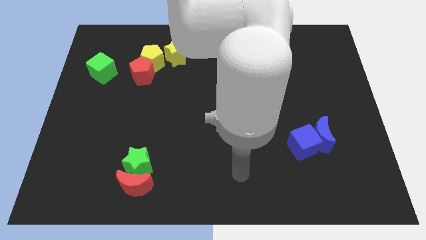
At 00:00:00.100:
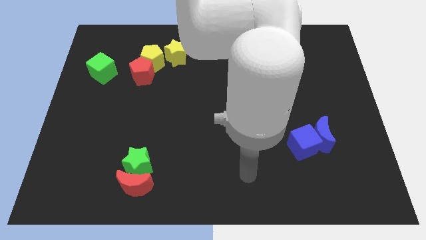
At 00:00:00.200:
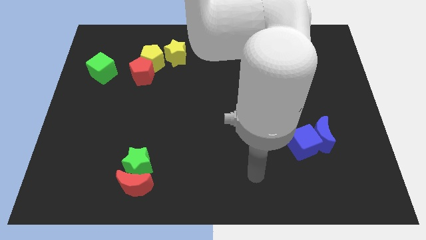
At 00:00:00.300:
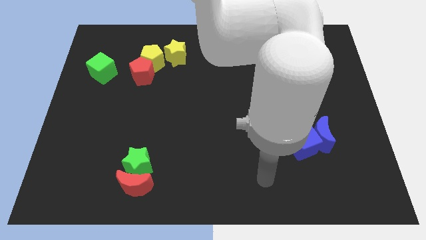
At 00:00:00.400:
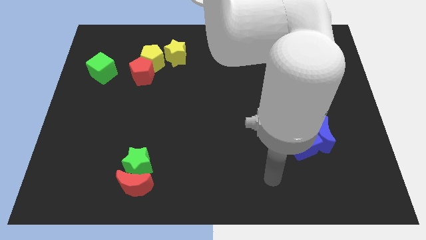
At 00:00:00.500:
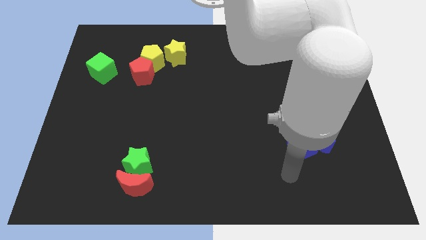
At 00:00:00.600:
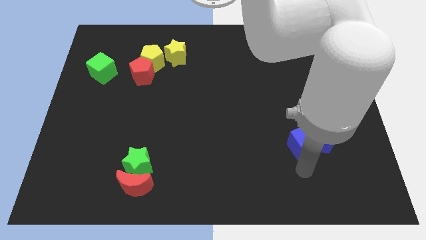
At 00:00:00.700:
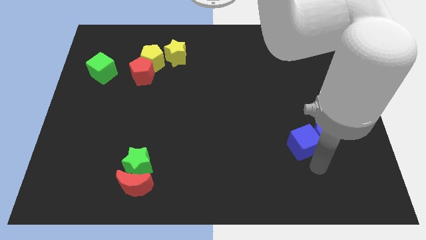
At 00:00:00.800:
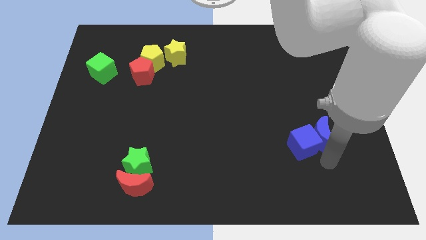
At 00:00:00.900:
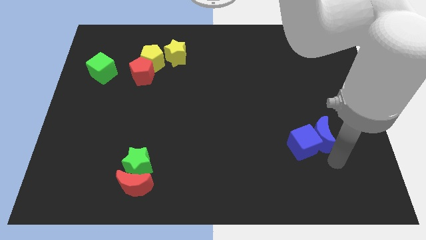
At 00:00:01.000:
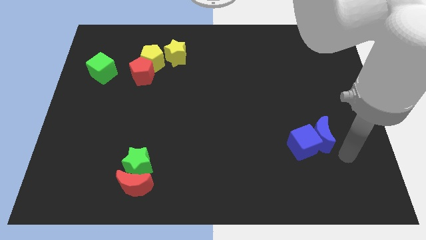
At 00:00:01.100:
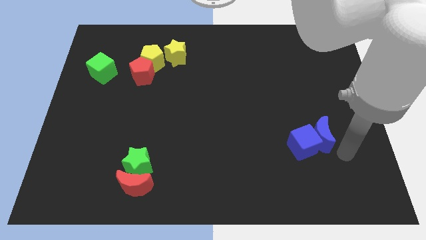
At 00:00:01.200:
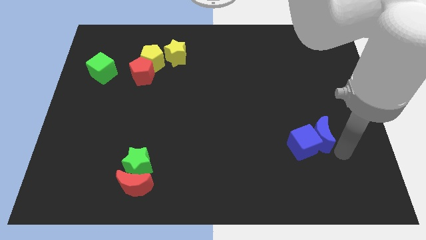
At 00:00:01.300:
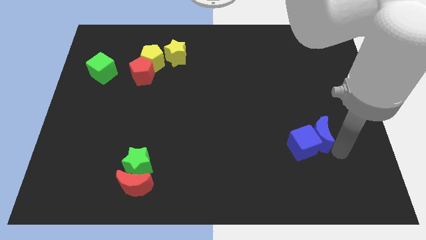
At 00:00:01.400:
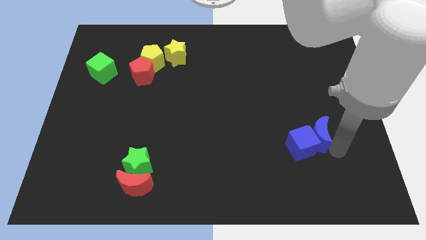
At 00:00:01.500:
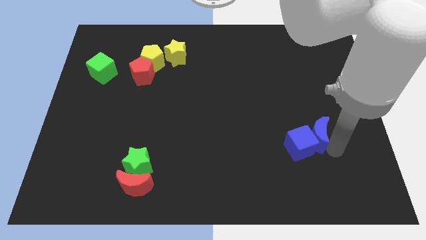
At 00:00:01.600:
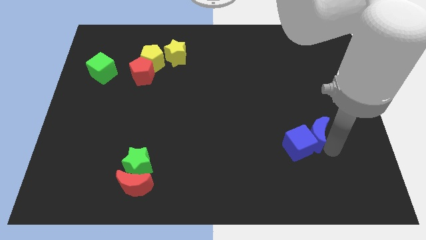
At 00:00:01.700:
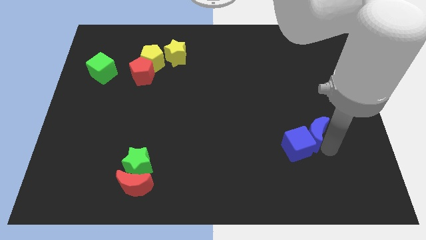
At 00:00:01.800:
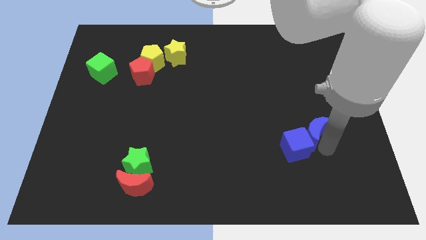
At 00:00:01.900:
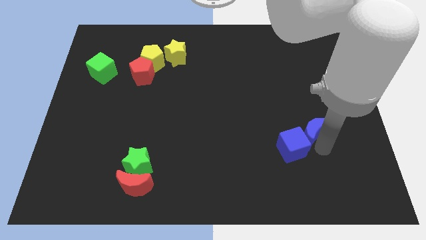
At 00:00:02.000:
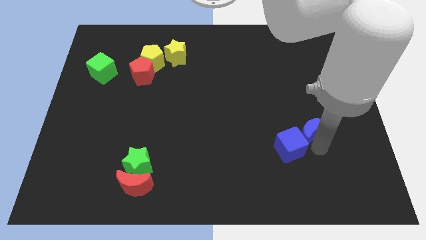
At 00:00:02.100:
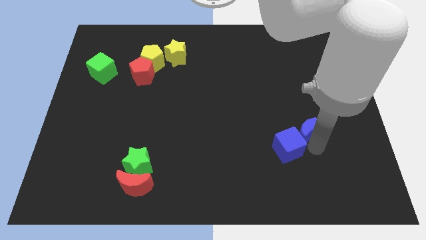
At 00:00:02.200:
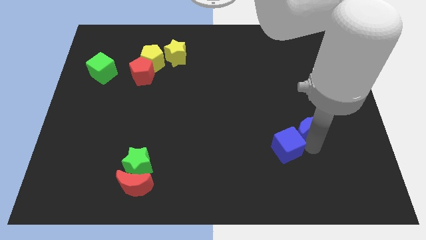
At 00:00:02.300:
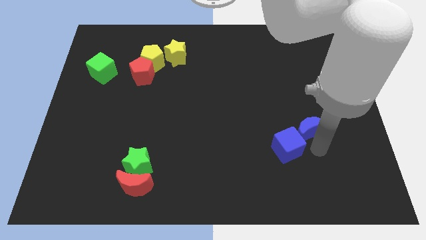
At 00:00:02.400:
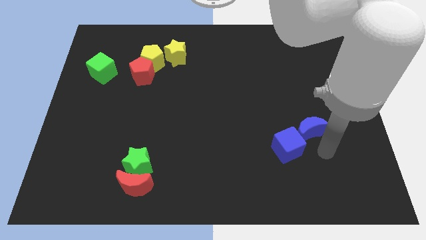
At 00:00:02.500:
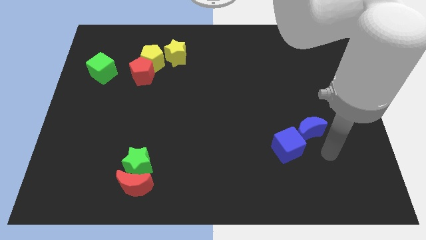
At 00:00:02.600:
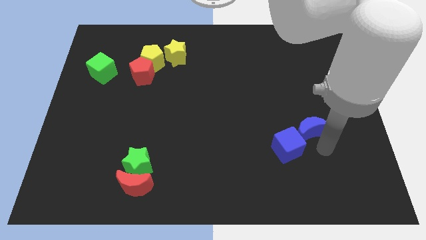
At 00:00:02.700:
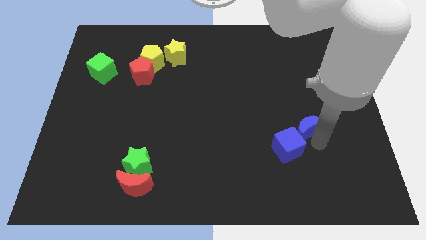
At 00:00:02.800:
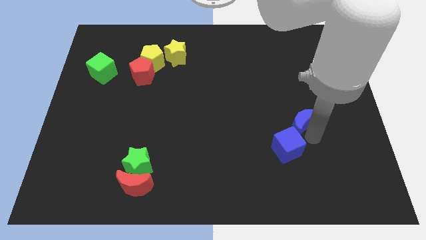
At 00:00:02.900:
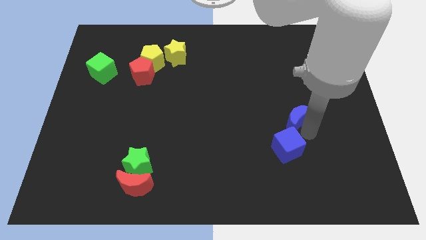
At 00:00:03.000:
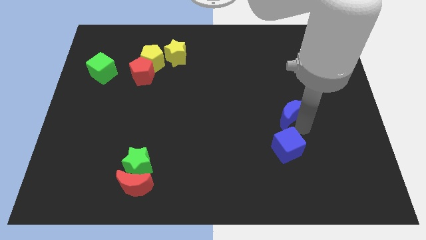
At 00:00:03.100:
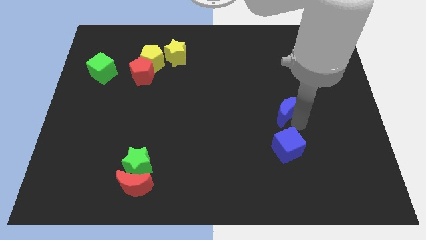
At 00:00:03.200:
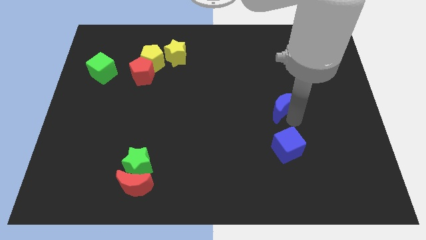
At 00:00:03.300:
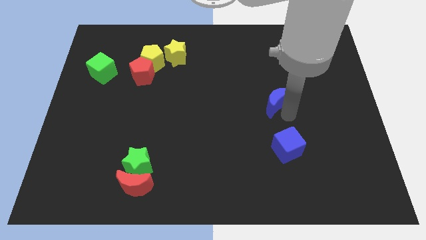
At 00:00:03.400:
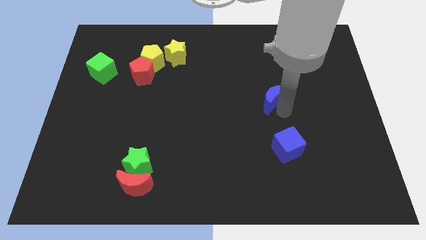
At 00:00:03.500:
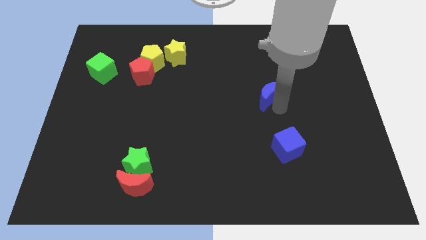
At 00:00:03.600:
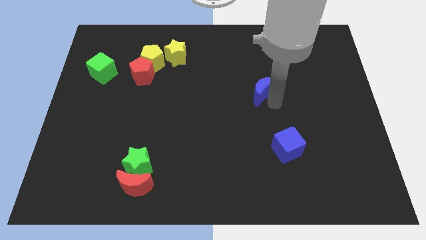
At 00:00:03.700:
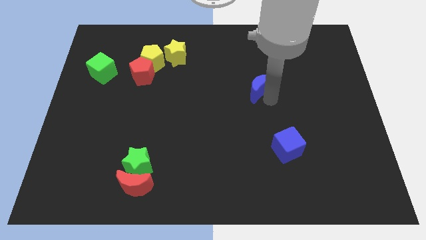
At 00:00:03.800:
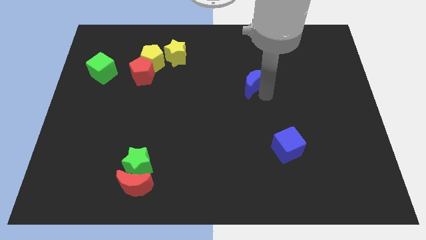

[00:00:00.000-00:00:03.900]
move the blue moon upwards and then to the left

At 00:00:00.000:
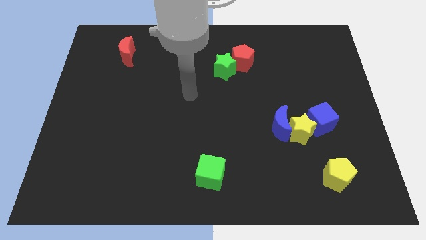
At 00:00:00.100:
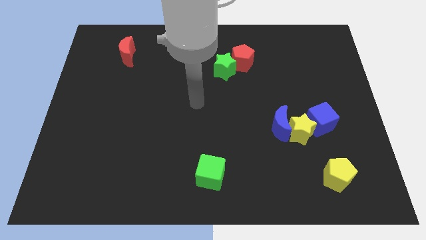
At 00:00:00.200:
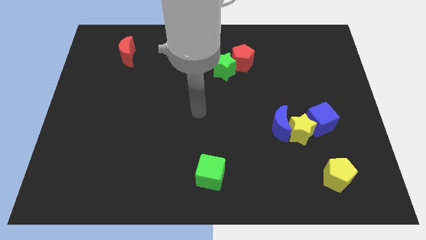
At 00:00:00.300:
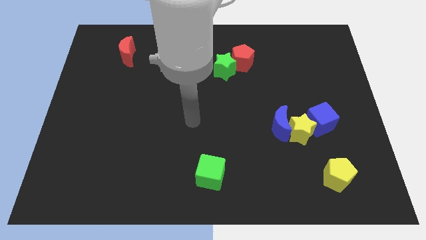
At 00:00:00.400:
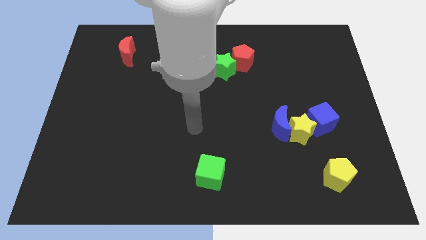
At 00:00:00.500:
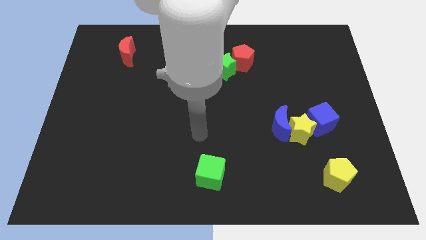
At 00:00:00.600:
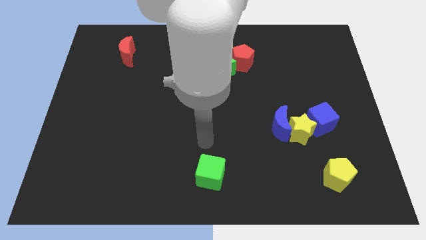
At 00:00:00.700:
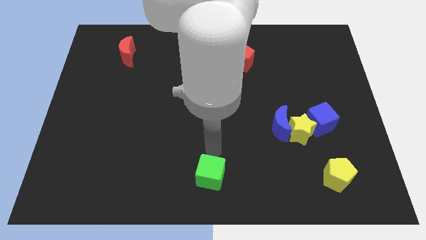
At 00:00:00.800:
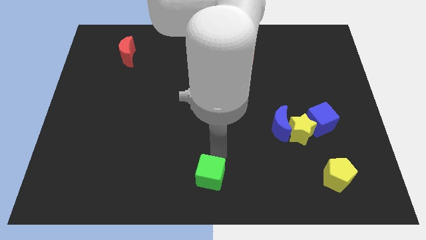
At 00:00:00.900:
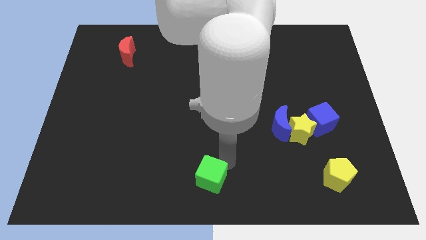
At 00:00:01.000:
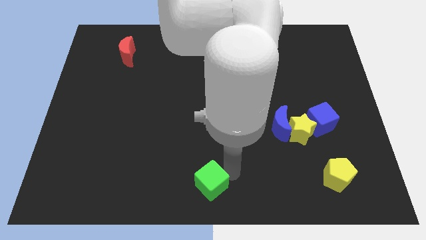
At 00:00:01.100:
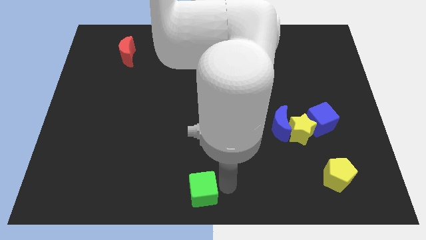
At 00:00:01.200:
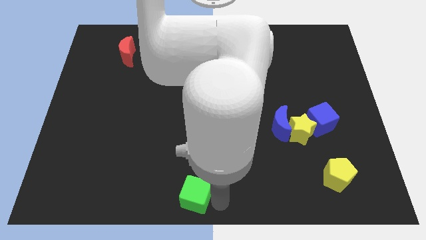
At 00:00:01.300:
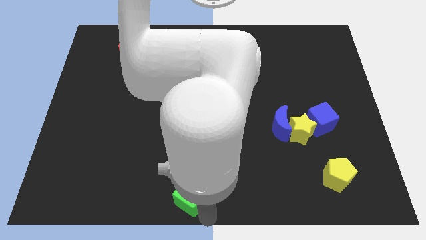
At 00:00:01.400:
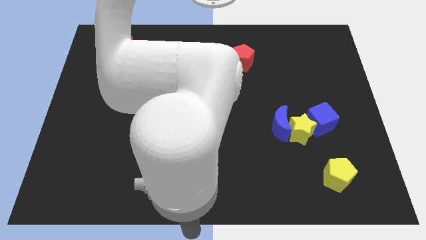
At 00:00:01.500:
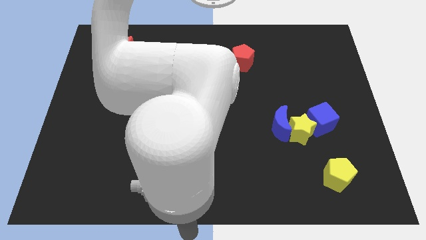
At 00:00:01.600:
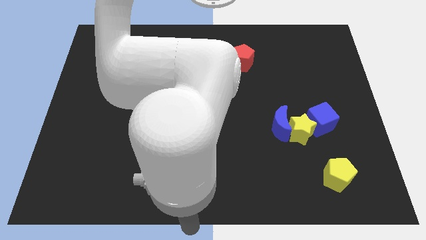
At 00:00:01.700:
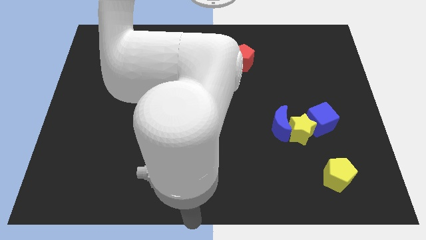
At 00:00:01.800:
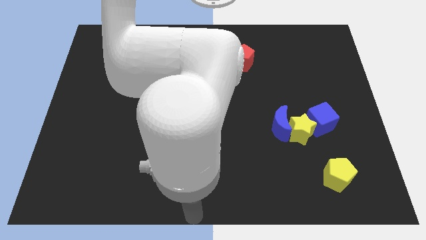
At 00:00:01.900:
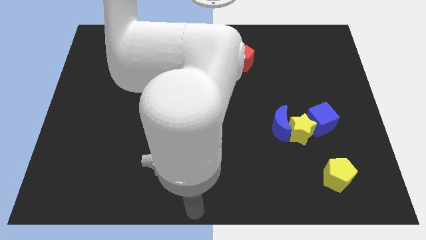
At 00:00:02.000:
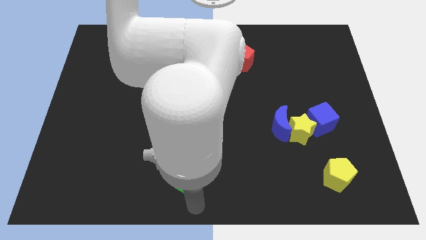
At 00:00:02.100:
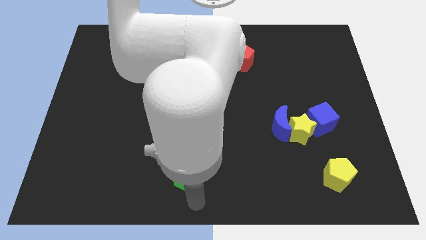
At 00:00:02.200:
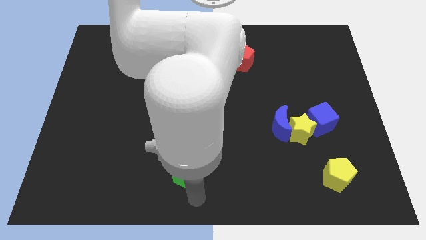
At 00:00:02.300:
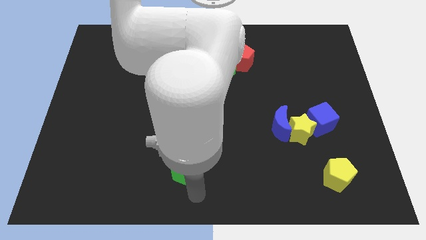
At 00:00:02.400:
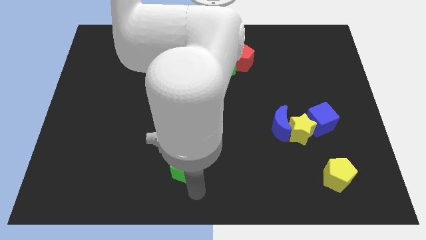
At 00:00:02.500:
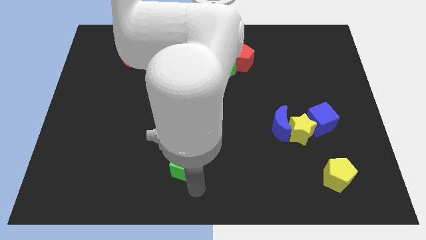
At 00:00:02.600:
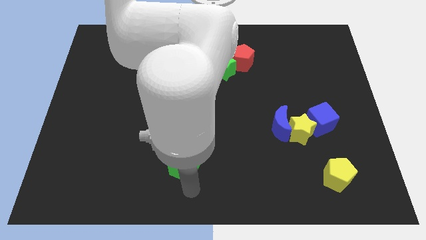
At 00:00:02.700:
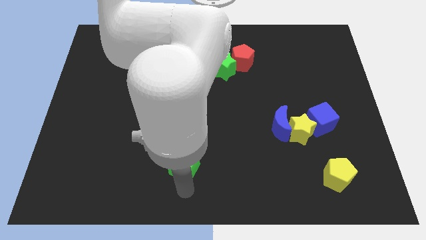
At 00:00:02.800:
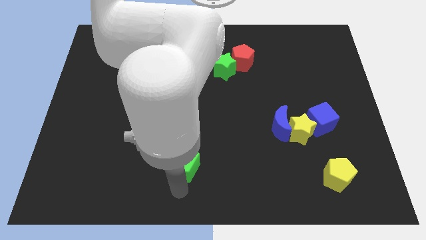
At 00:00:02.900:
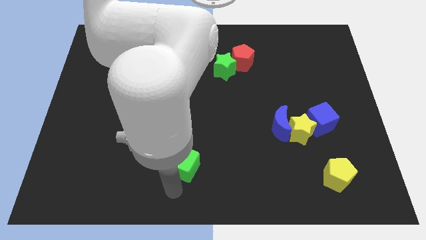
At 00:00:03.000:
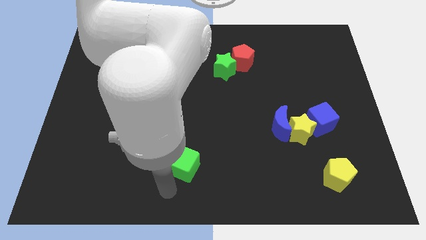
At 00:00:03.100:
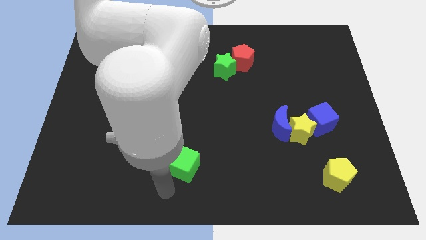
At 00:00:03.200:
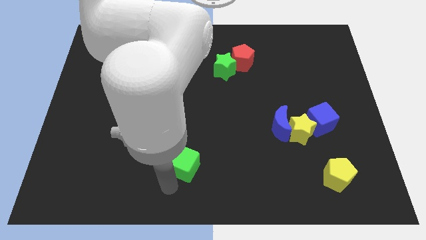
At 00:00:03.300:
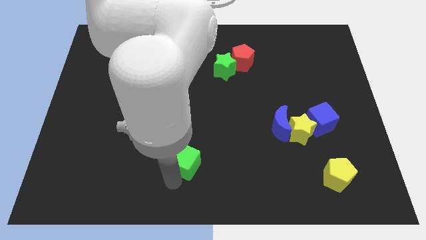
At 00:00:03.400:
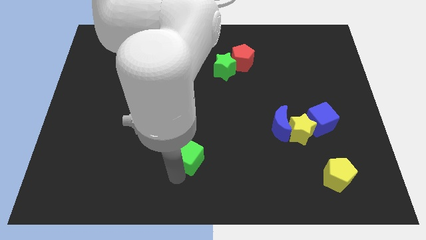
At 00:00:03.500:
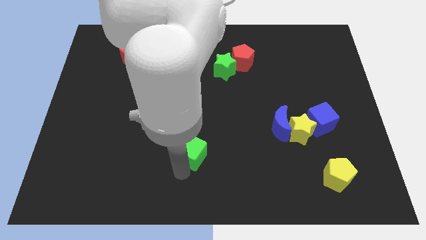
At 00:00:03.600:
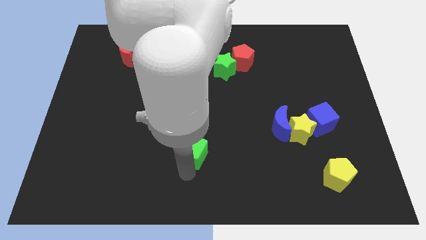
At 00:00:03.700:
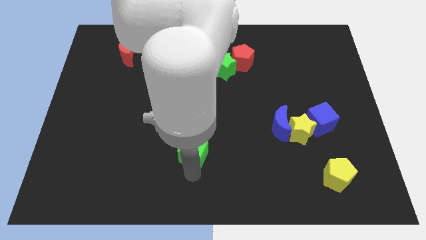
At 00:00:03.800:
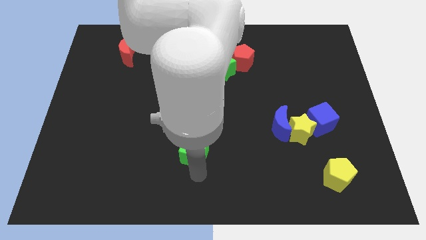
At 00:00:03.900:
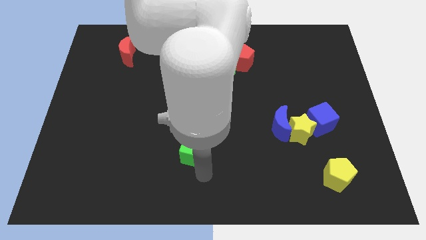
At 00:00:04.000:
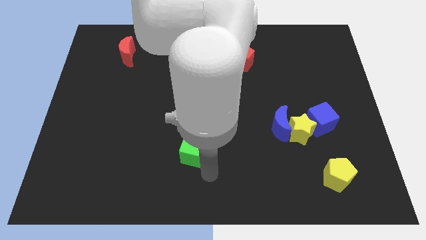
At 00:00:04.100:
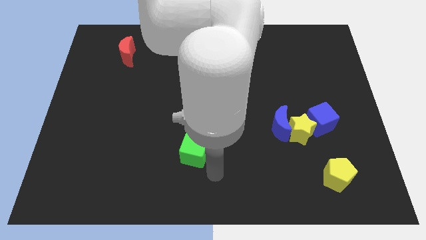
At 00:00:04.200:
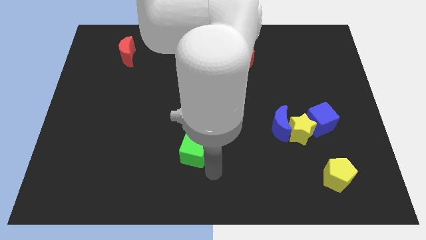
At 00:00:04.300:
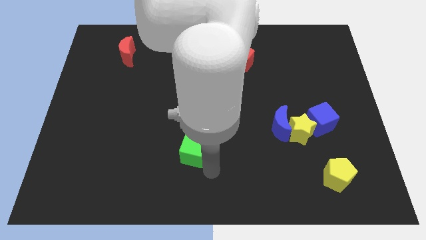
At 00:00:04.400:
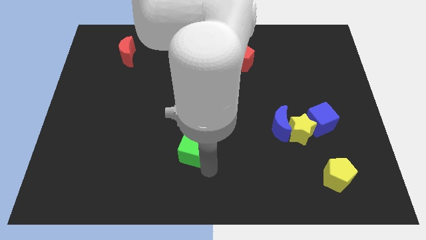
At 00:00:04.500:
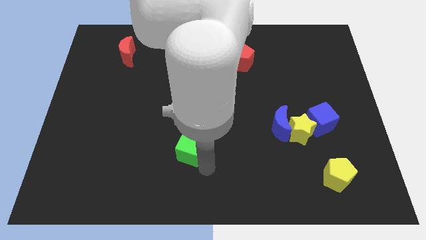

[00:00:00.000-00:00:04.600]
move the green cube a little upwards and then left
